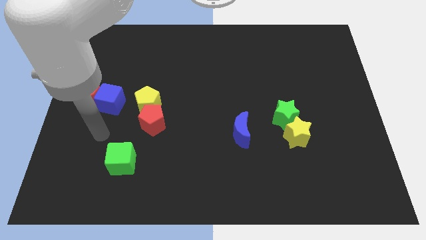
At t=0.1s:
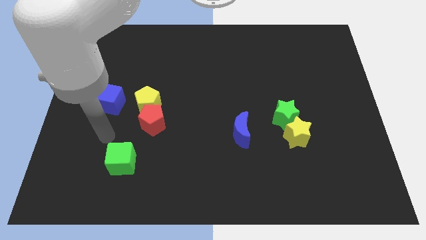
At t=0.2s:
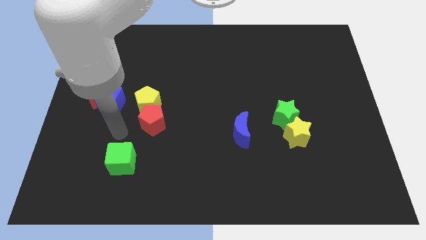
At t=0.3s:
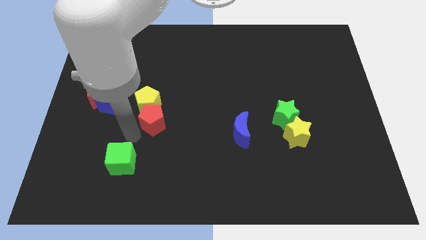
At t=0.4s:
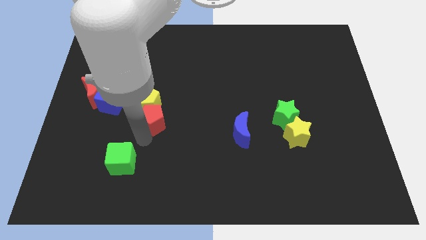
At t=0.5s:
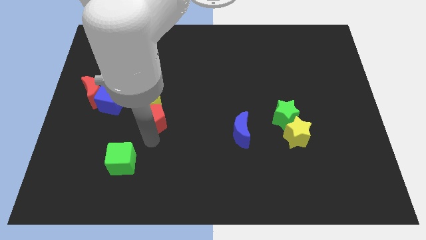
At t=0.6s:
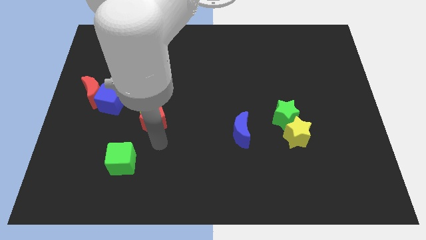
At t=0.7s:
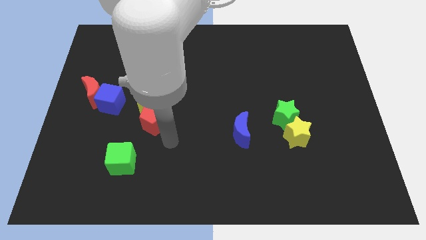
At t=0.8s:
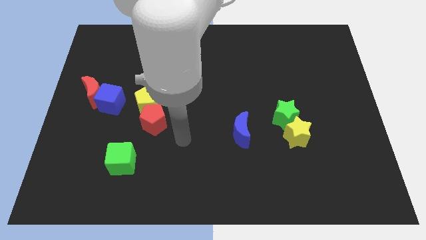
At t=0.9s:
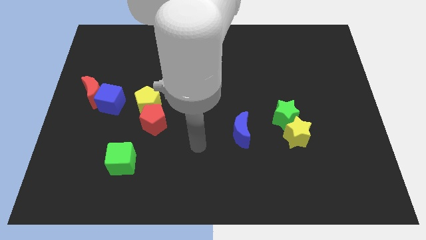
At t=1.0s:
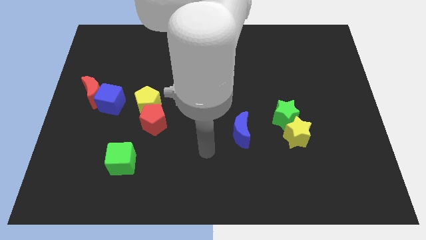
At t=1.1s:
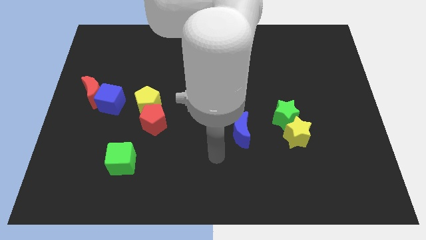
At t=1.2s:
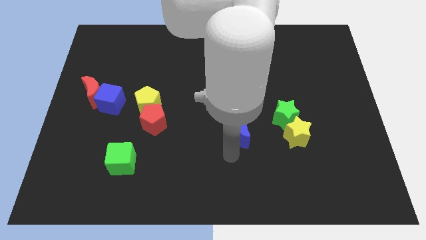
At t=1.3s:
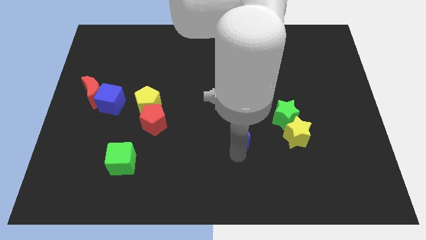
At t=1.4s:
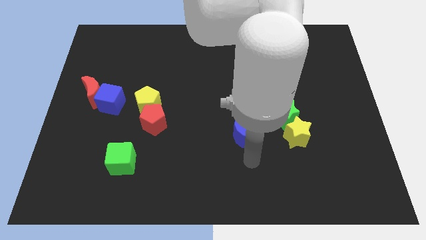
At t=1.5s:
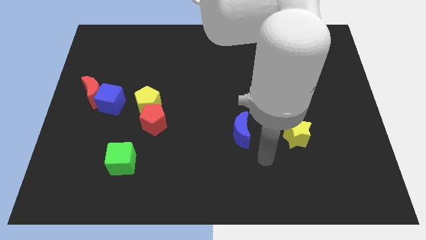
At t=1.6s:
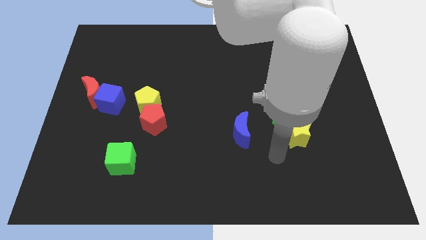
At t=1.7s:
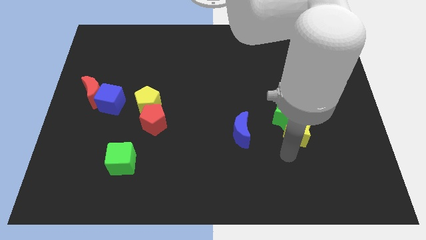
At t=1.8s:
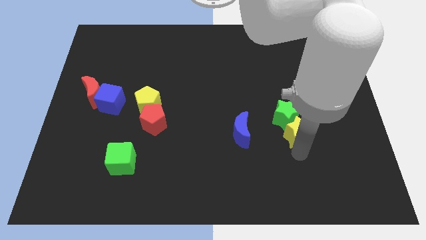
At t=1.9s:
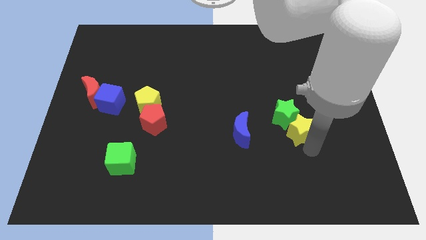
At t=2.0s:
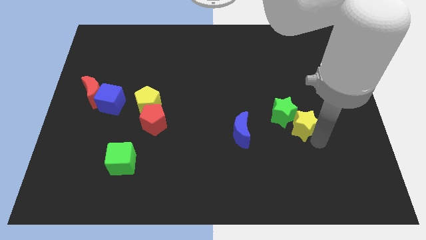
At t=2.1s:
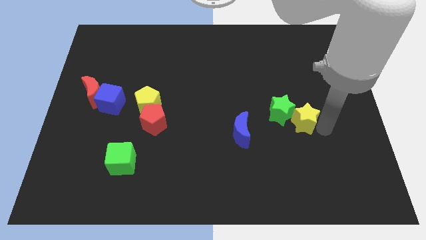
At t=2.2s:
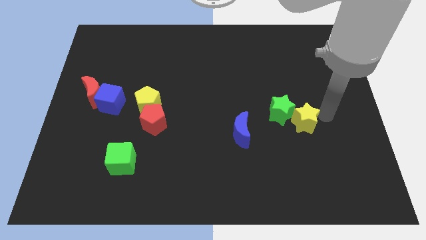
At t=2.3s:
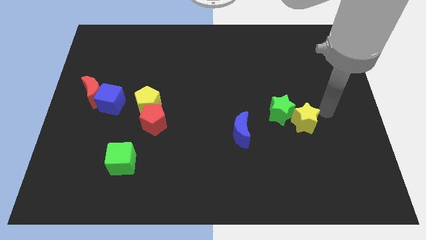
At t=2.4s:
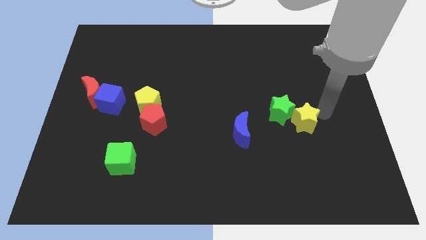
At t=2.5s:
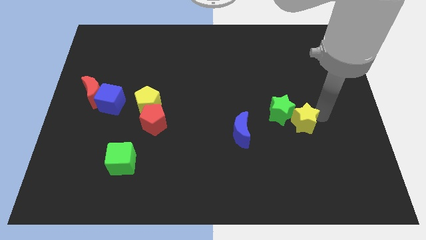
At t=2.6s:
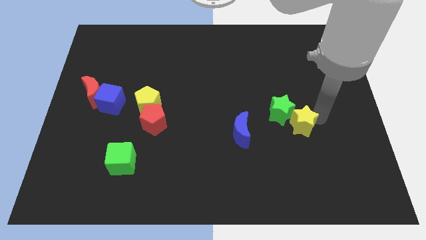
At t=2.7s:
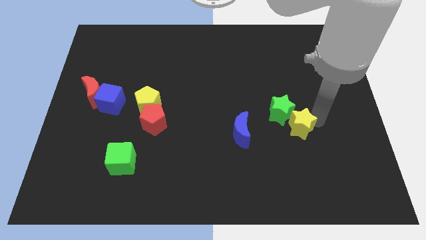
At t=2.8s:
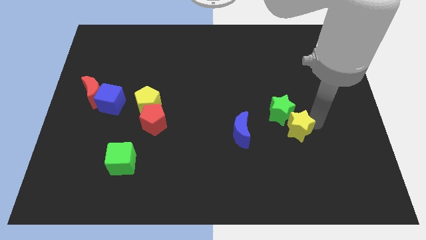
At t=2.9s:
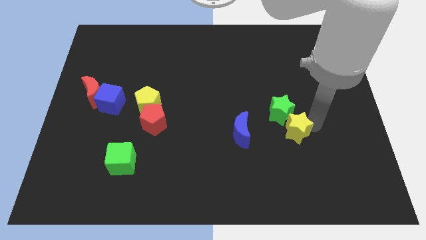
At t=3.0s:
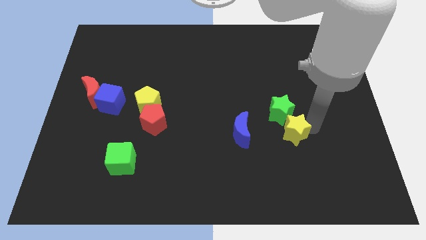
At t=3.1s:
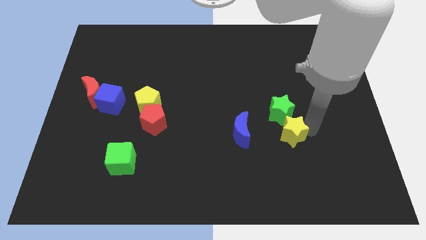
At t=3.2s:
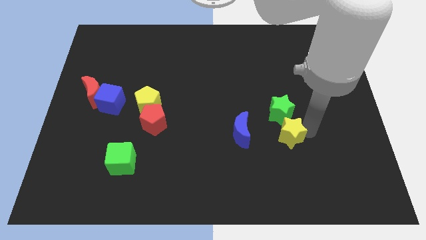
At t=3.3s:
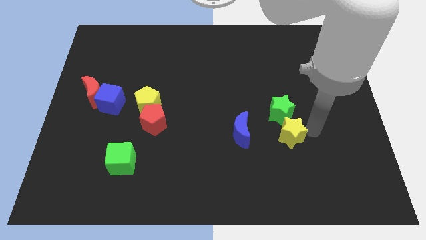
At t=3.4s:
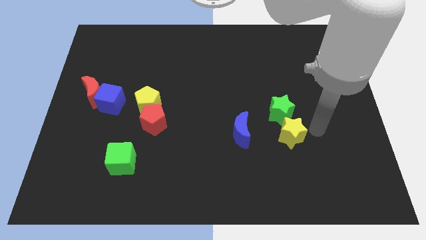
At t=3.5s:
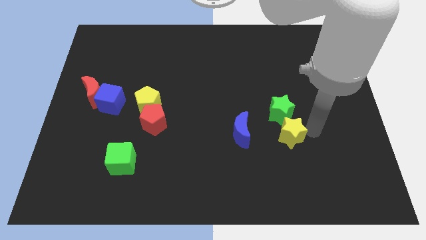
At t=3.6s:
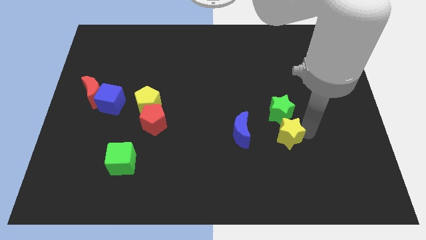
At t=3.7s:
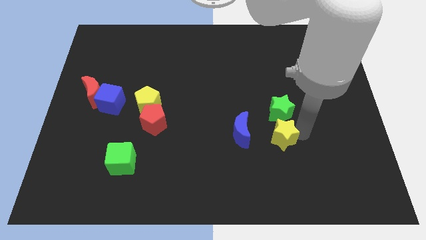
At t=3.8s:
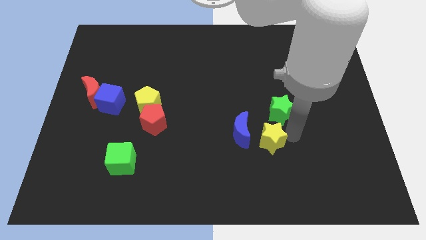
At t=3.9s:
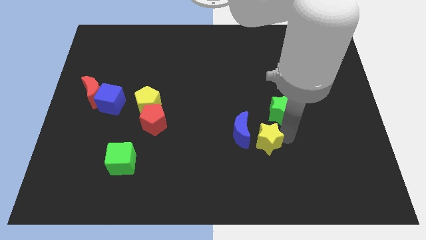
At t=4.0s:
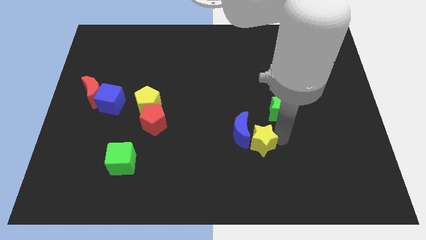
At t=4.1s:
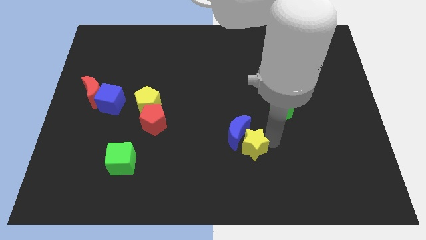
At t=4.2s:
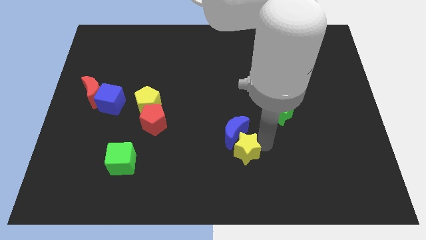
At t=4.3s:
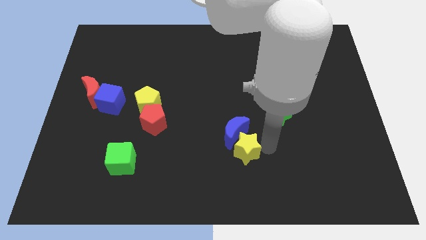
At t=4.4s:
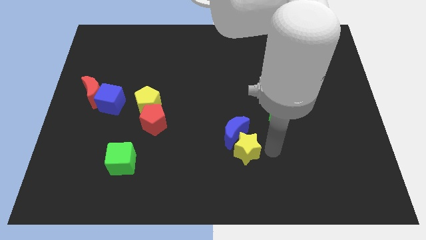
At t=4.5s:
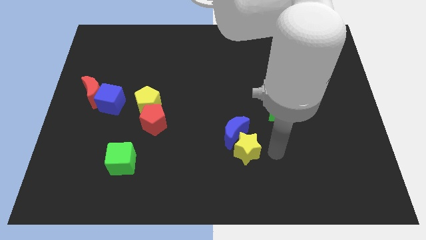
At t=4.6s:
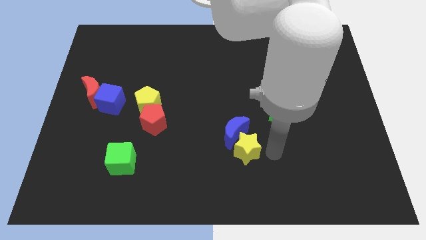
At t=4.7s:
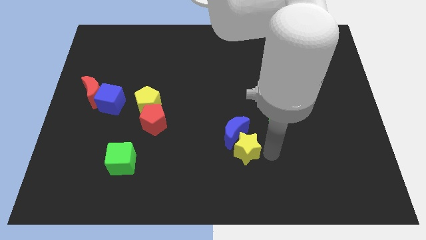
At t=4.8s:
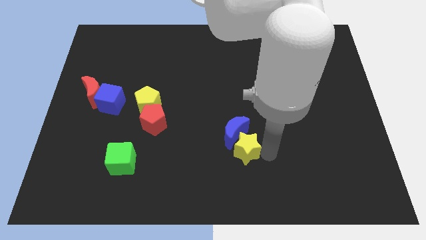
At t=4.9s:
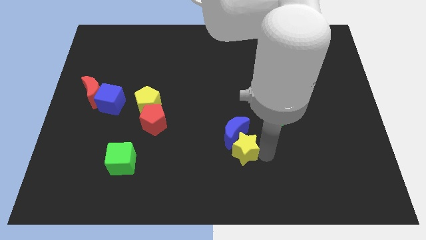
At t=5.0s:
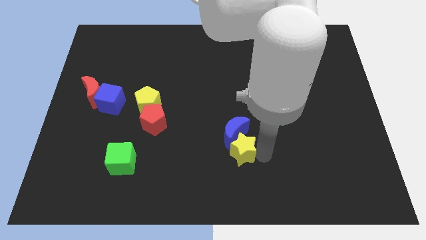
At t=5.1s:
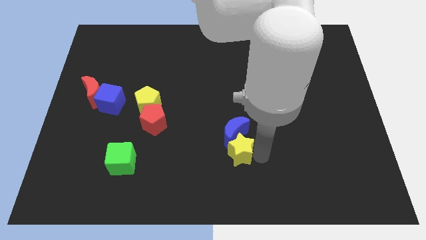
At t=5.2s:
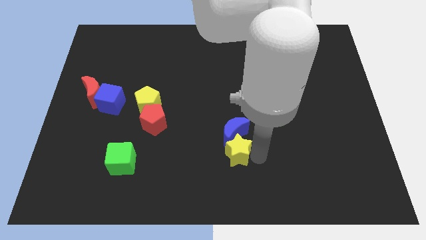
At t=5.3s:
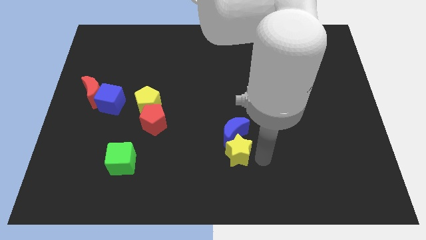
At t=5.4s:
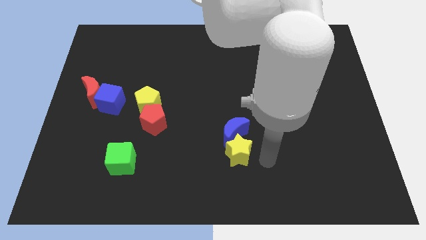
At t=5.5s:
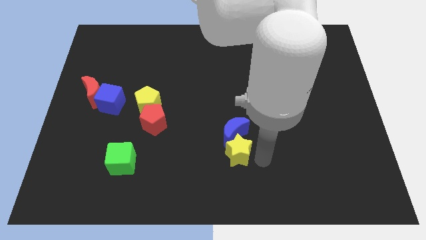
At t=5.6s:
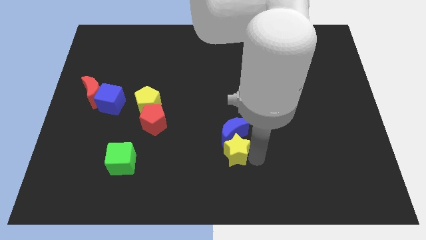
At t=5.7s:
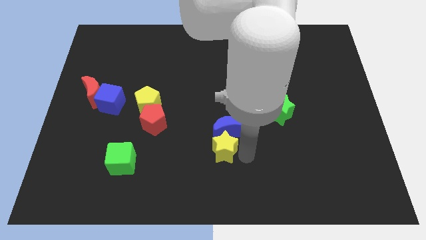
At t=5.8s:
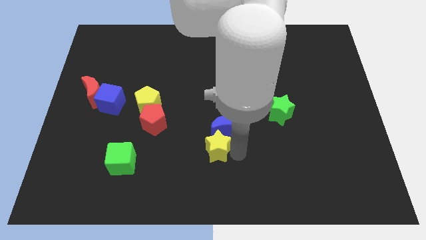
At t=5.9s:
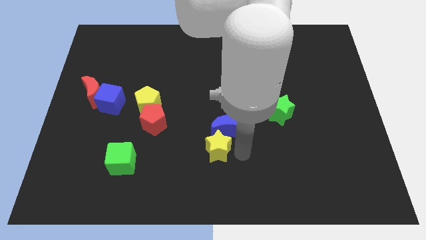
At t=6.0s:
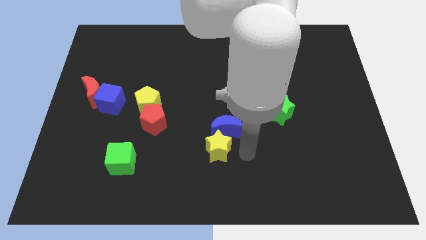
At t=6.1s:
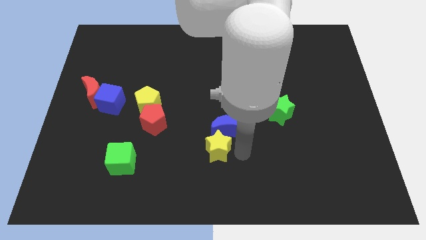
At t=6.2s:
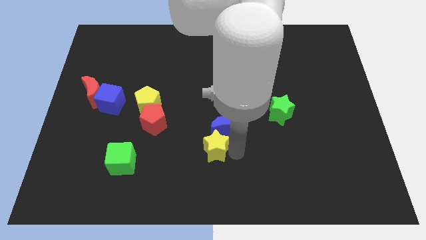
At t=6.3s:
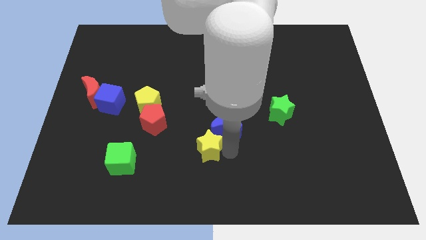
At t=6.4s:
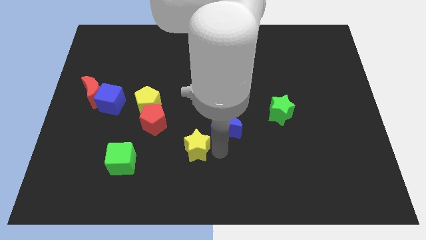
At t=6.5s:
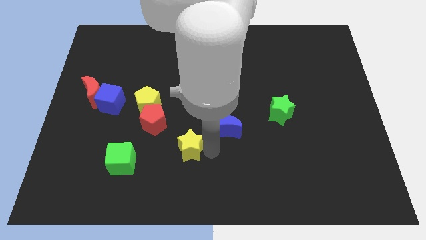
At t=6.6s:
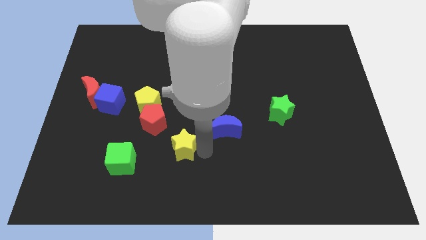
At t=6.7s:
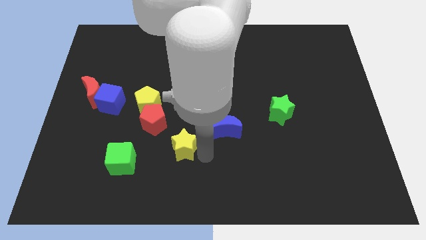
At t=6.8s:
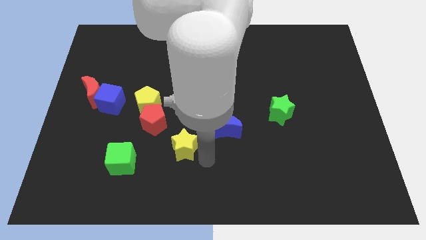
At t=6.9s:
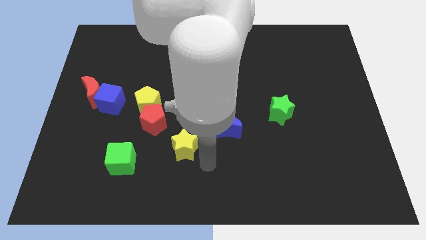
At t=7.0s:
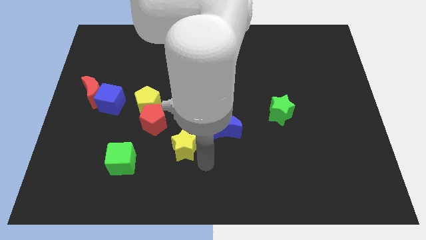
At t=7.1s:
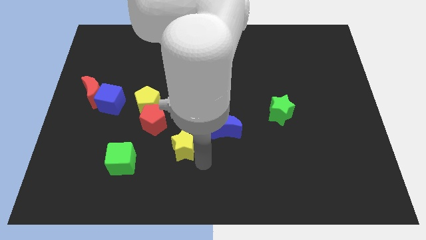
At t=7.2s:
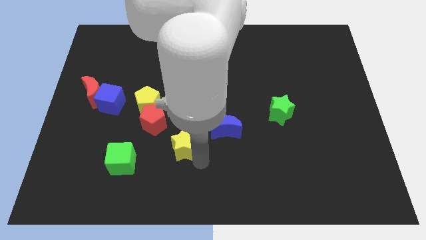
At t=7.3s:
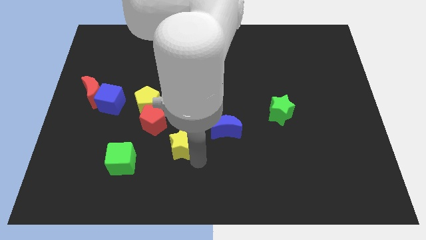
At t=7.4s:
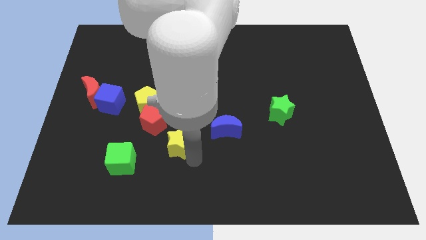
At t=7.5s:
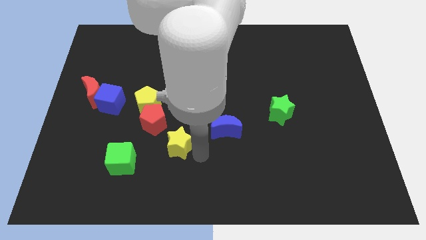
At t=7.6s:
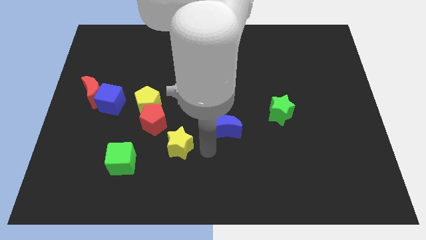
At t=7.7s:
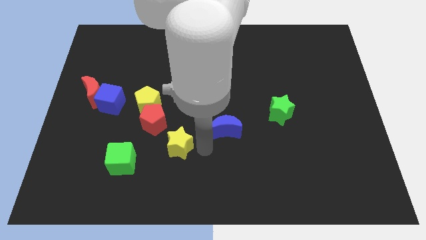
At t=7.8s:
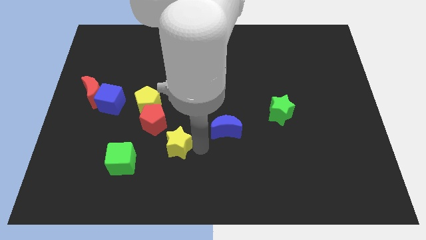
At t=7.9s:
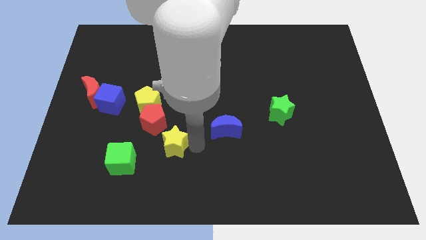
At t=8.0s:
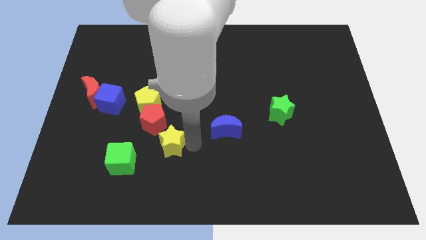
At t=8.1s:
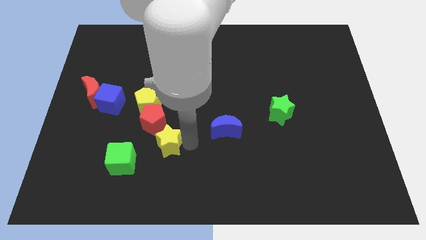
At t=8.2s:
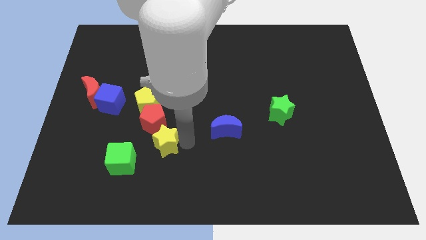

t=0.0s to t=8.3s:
put the yellow star below the yellow pentagon

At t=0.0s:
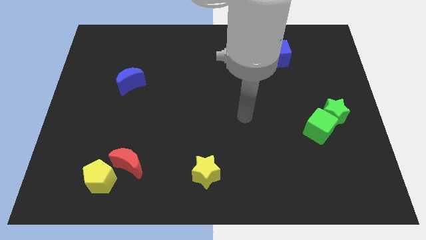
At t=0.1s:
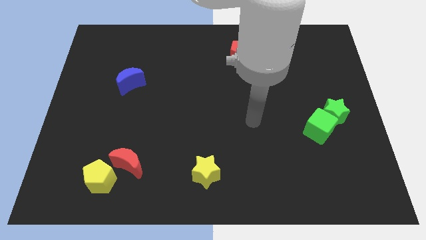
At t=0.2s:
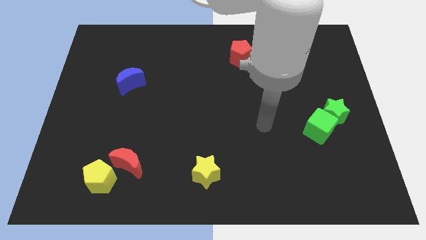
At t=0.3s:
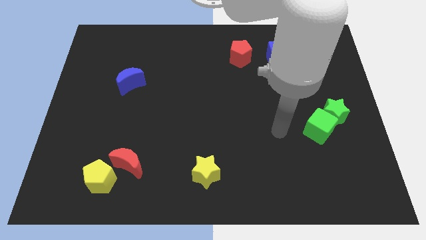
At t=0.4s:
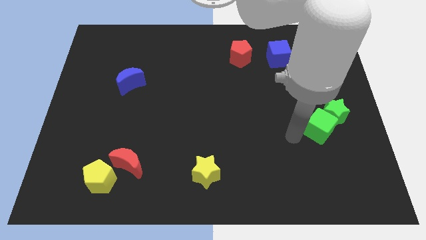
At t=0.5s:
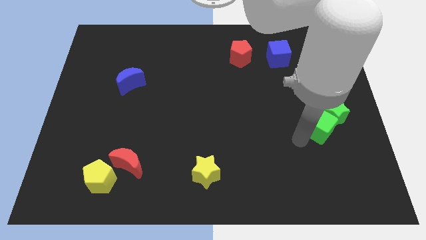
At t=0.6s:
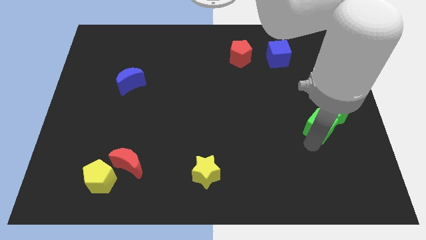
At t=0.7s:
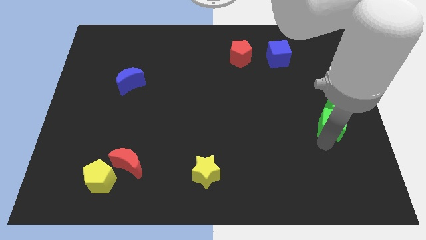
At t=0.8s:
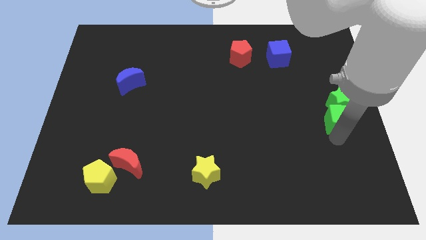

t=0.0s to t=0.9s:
move the green star diagonally up and to the left of the green cube
